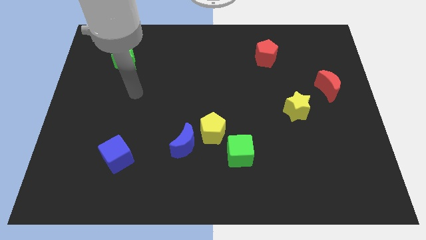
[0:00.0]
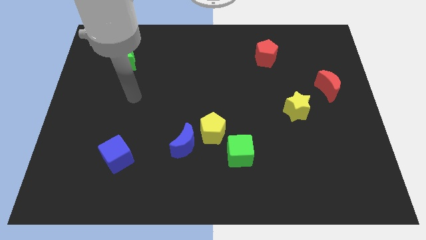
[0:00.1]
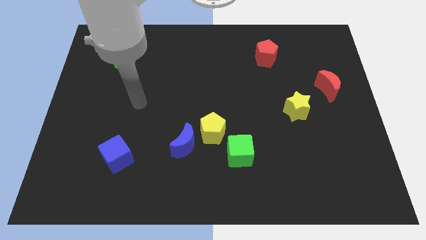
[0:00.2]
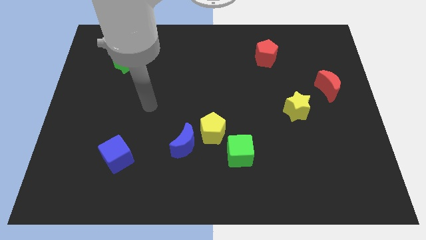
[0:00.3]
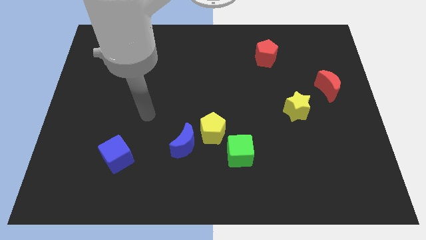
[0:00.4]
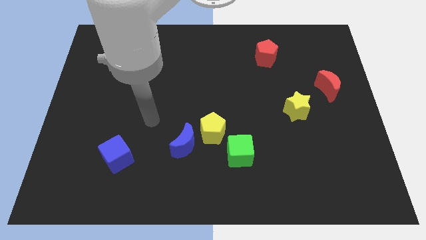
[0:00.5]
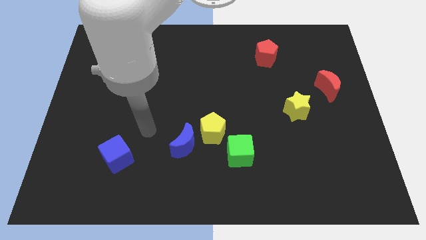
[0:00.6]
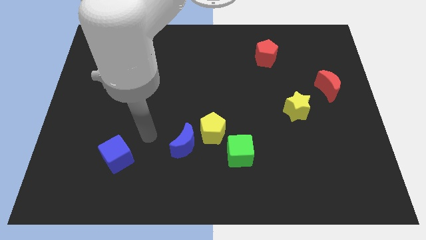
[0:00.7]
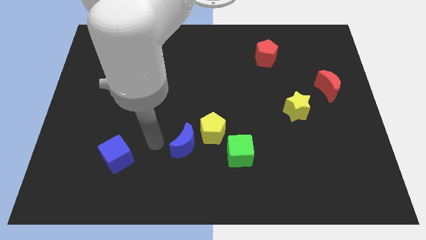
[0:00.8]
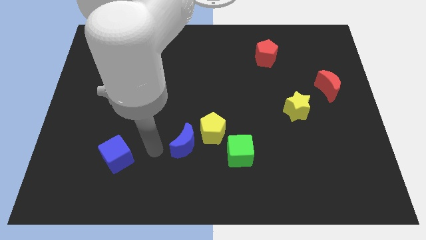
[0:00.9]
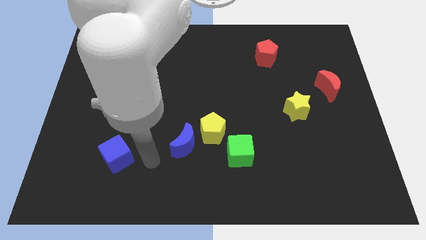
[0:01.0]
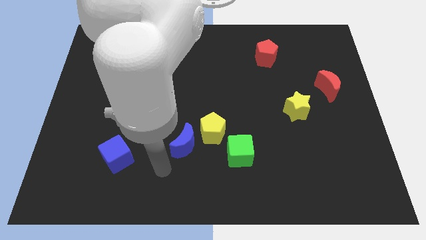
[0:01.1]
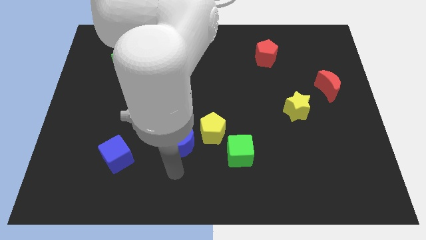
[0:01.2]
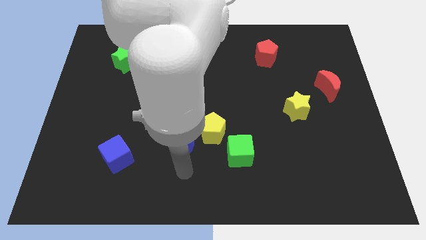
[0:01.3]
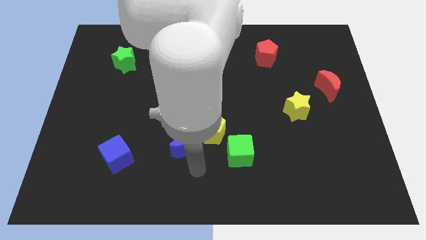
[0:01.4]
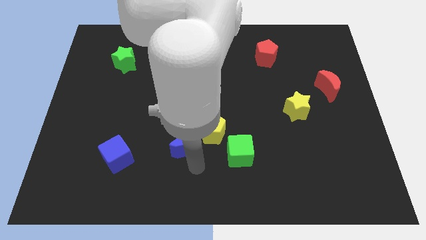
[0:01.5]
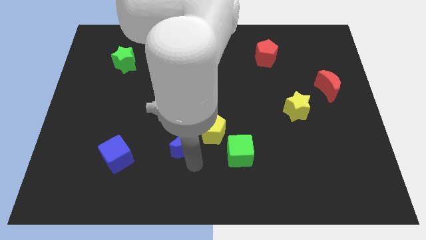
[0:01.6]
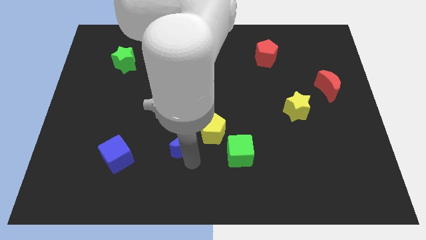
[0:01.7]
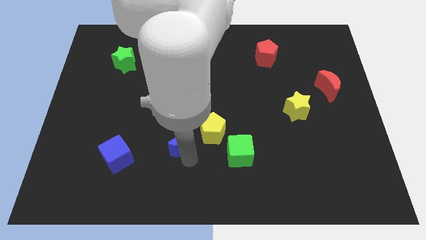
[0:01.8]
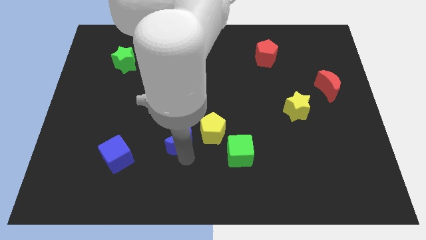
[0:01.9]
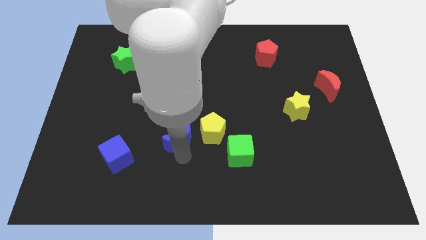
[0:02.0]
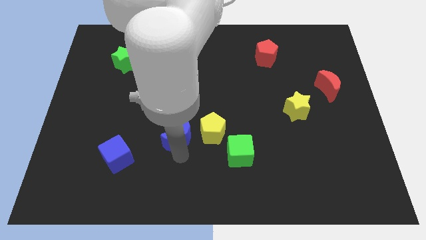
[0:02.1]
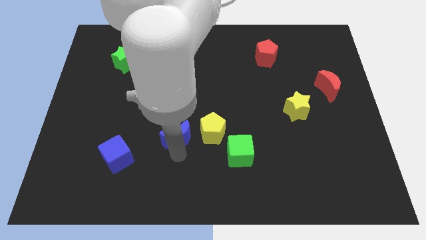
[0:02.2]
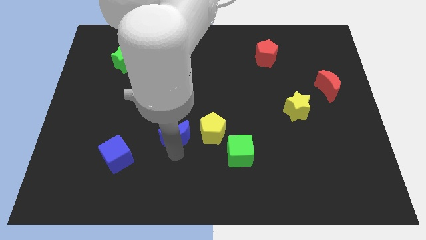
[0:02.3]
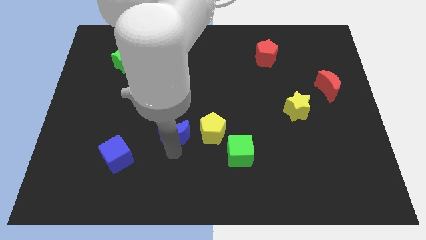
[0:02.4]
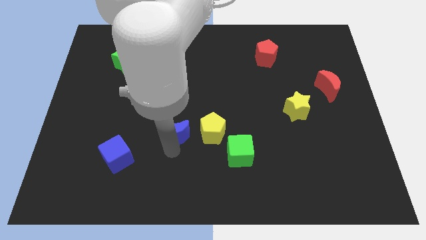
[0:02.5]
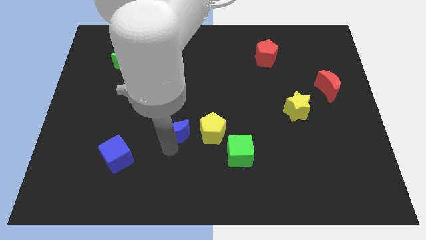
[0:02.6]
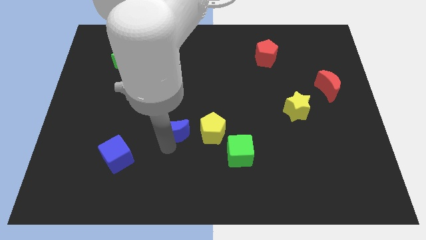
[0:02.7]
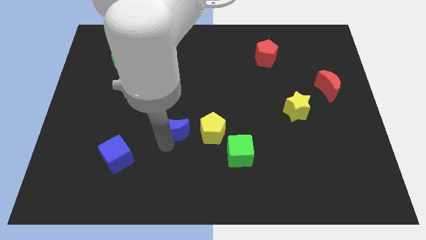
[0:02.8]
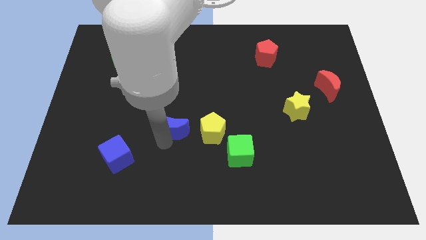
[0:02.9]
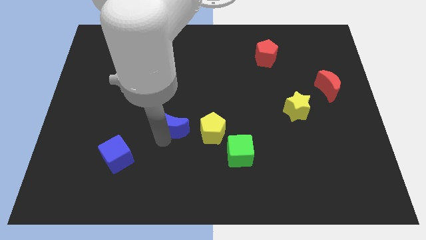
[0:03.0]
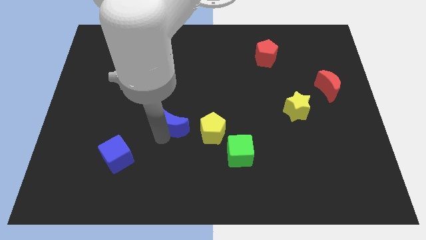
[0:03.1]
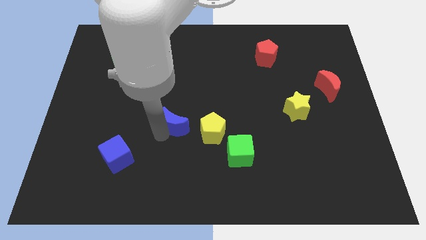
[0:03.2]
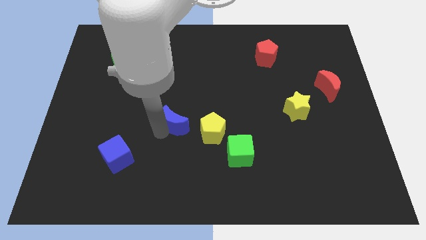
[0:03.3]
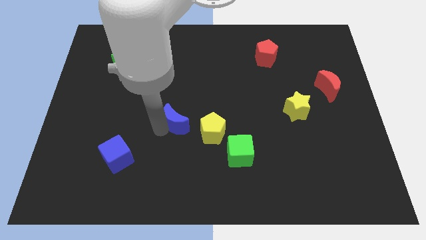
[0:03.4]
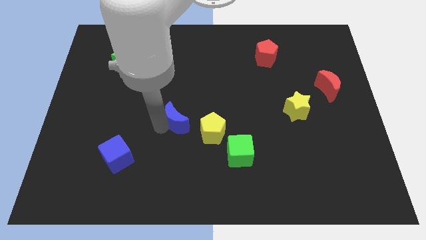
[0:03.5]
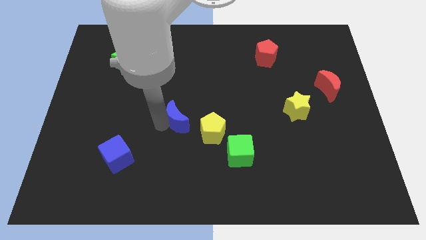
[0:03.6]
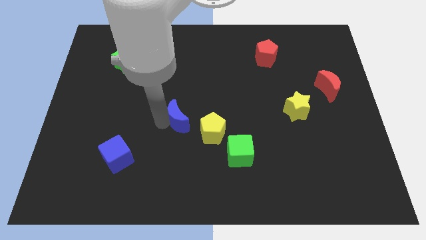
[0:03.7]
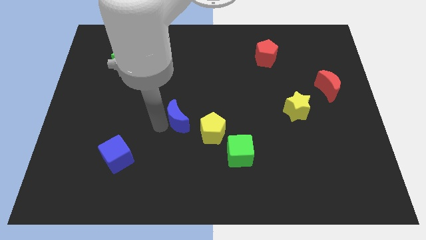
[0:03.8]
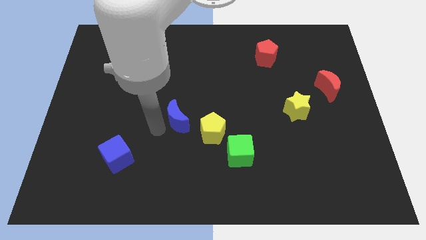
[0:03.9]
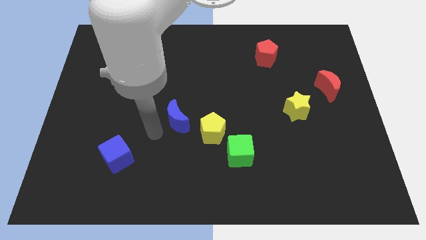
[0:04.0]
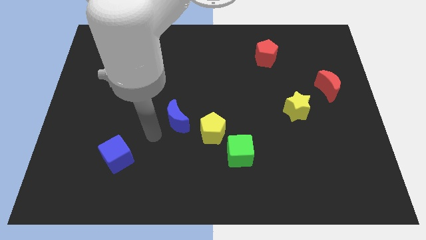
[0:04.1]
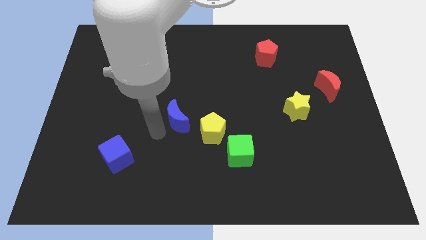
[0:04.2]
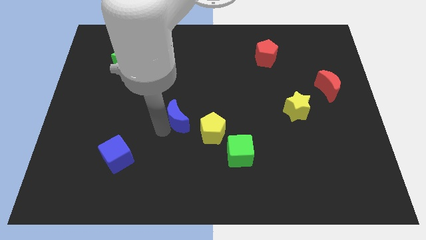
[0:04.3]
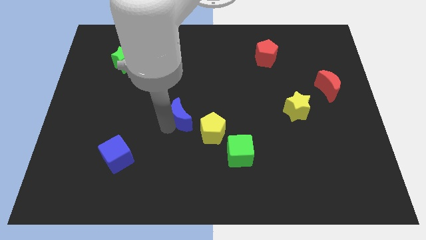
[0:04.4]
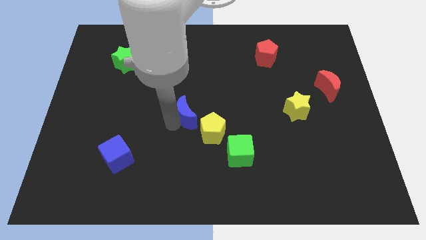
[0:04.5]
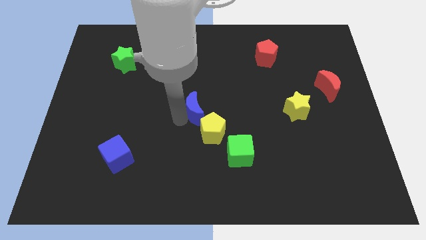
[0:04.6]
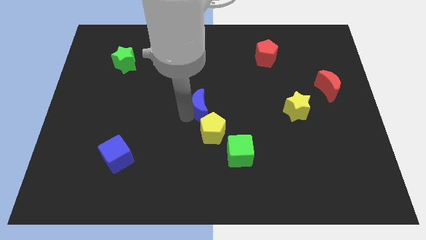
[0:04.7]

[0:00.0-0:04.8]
slightly move the blue moon upwards and right diagonally

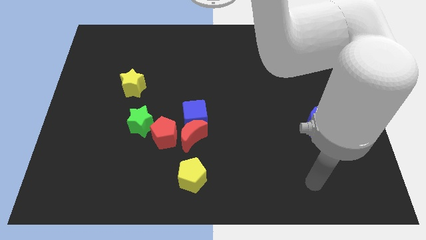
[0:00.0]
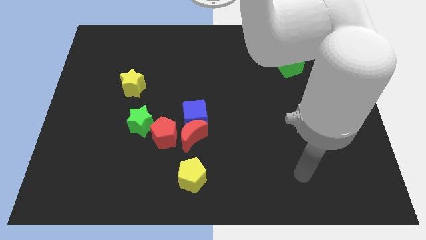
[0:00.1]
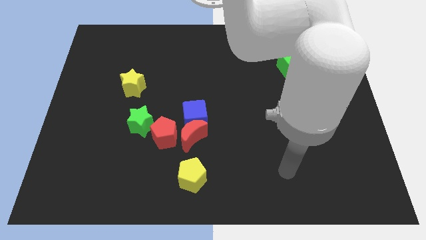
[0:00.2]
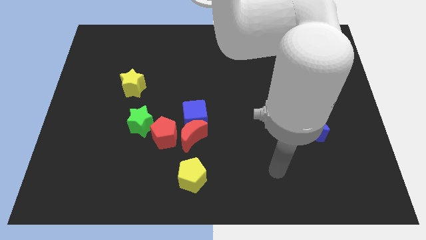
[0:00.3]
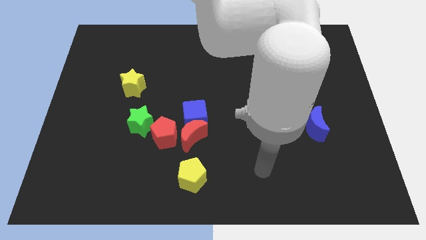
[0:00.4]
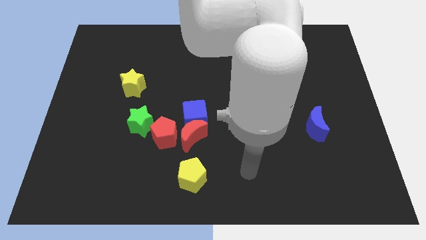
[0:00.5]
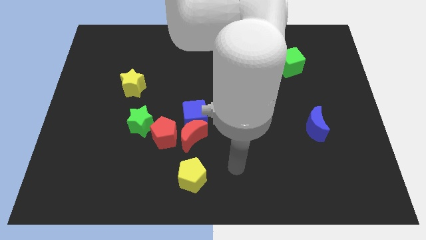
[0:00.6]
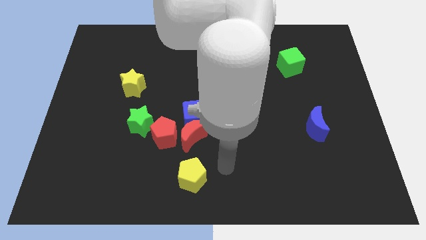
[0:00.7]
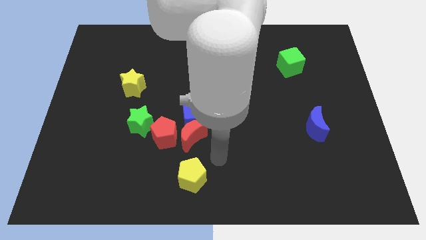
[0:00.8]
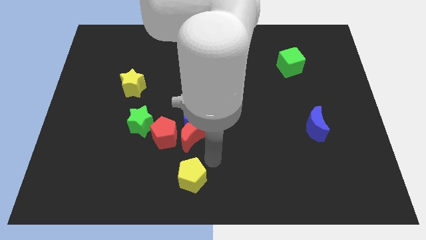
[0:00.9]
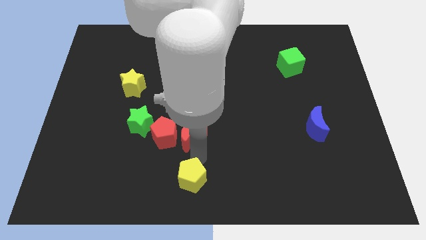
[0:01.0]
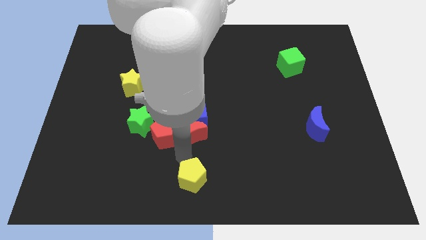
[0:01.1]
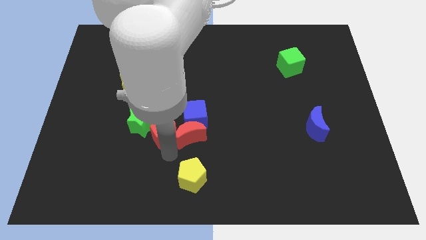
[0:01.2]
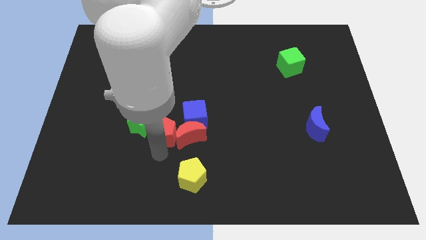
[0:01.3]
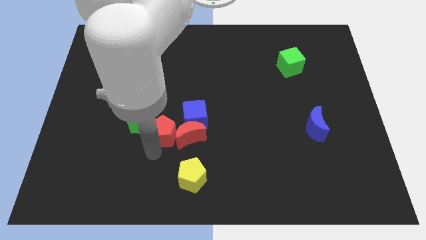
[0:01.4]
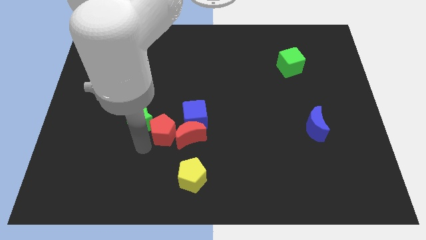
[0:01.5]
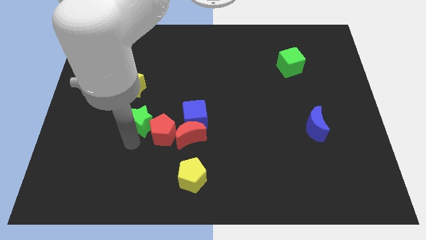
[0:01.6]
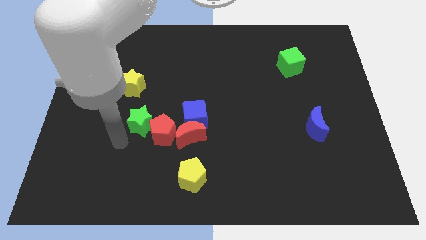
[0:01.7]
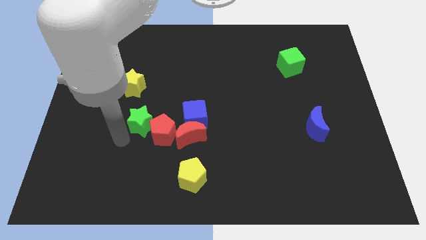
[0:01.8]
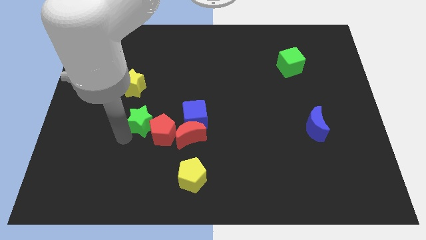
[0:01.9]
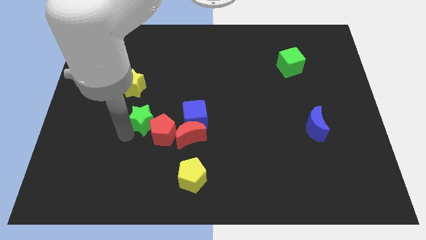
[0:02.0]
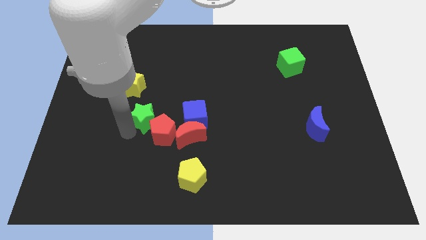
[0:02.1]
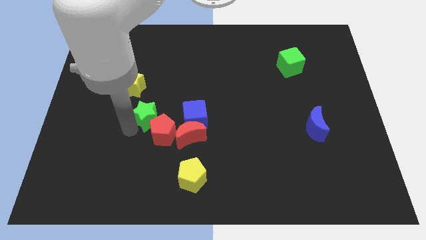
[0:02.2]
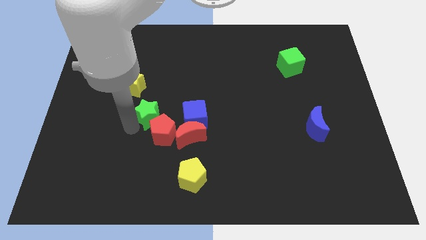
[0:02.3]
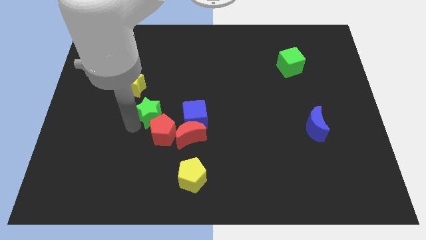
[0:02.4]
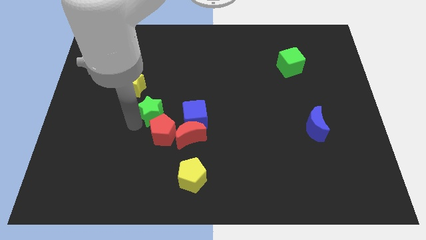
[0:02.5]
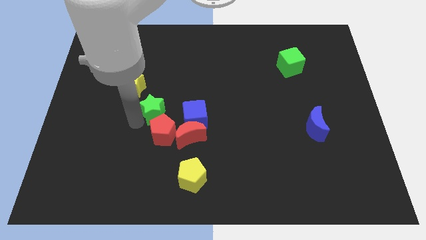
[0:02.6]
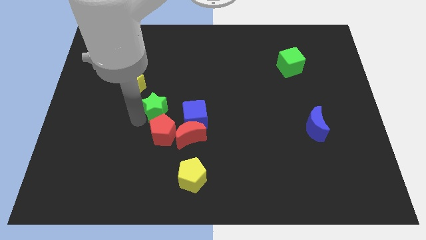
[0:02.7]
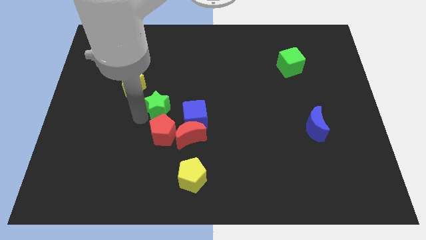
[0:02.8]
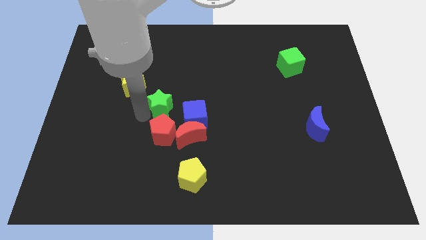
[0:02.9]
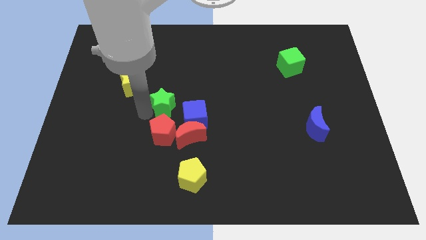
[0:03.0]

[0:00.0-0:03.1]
slide the green star upwards and then right a bit

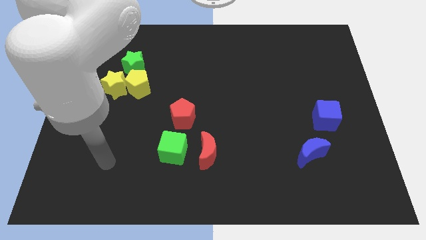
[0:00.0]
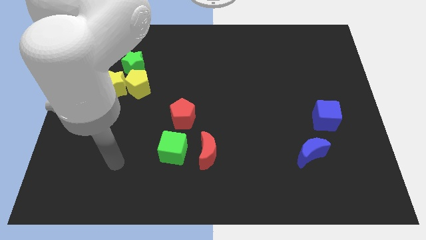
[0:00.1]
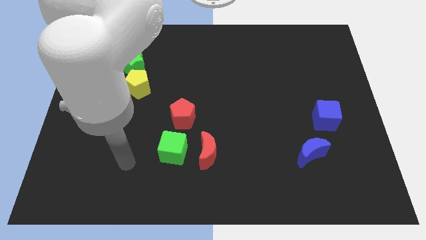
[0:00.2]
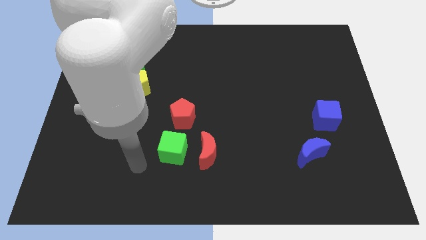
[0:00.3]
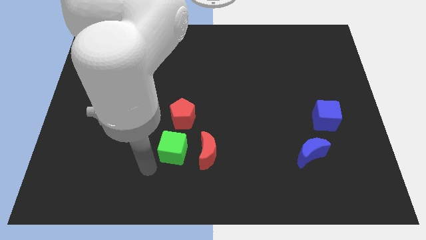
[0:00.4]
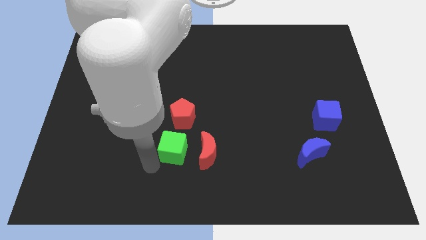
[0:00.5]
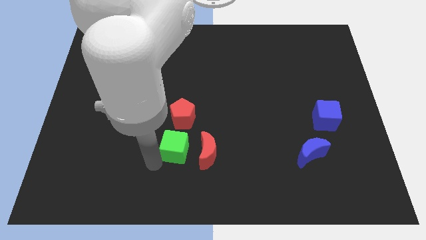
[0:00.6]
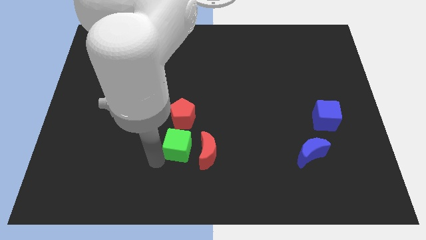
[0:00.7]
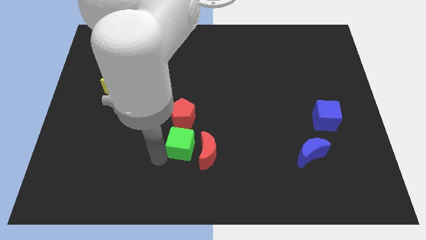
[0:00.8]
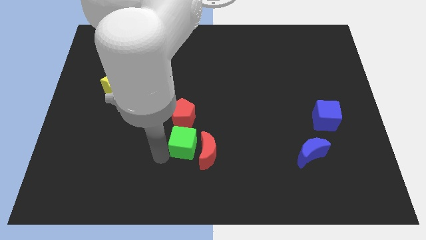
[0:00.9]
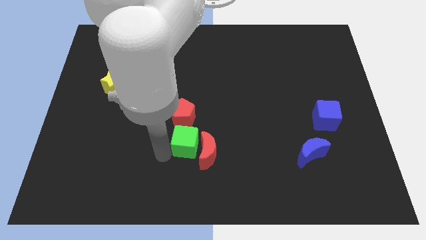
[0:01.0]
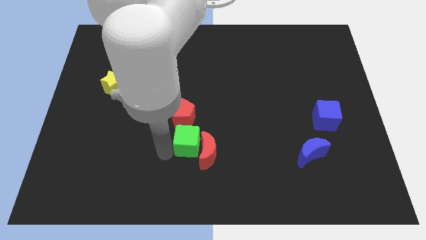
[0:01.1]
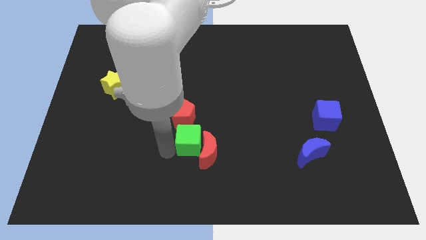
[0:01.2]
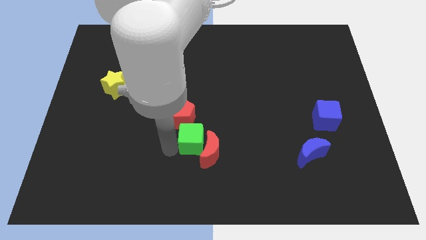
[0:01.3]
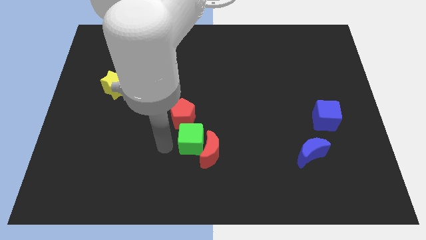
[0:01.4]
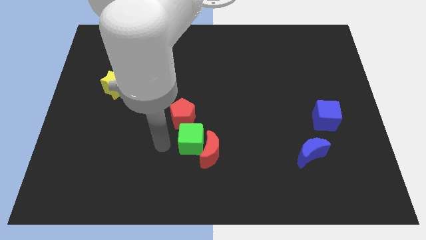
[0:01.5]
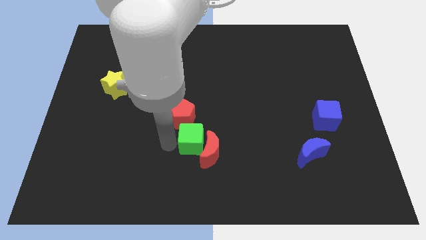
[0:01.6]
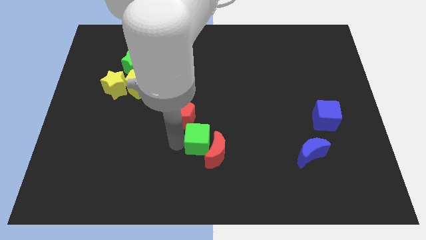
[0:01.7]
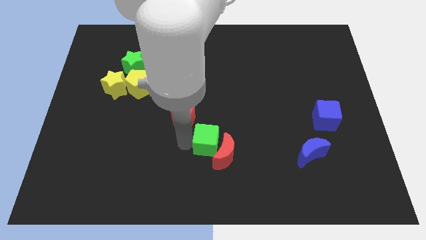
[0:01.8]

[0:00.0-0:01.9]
slightly move the green cube to the right
